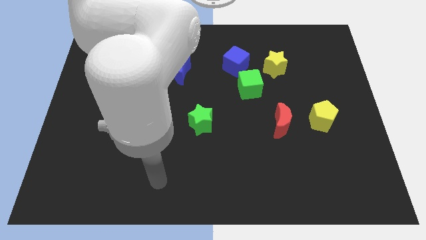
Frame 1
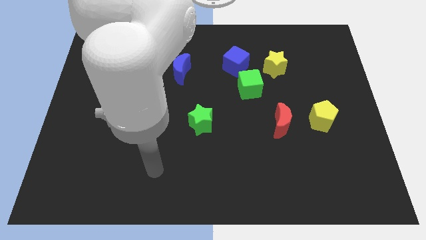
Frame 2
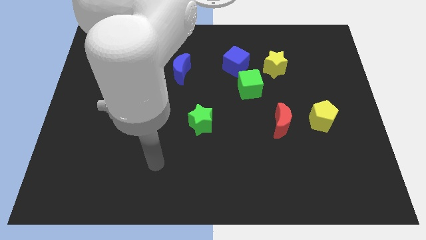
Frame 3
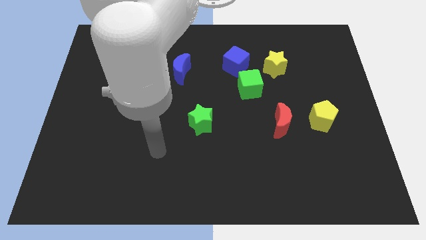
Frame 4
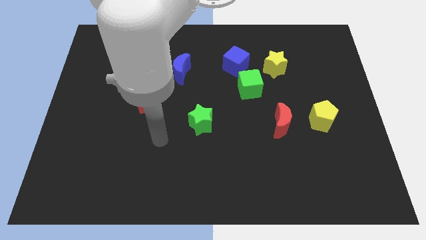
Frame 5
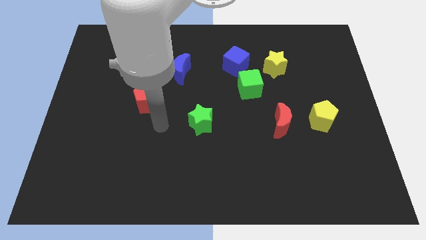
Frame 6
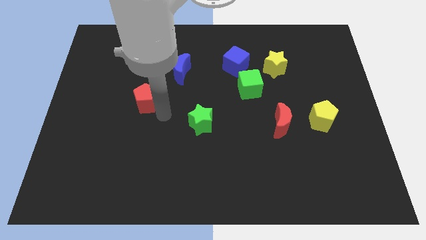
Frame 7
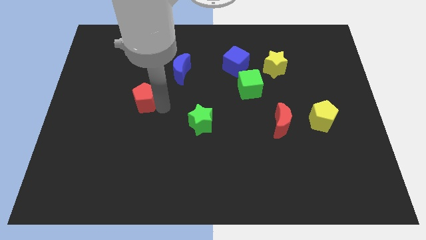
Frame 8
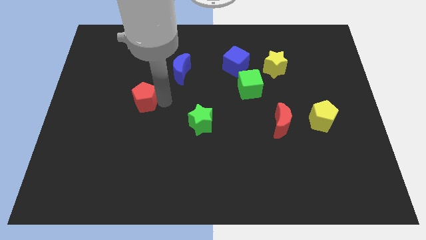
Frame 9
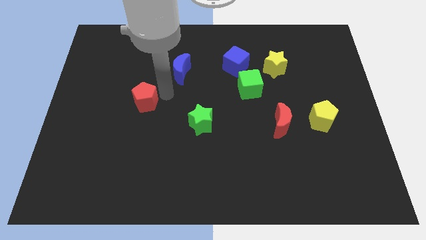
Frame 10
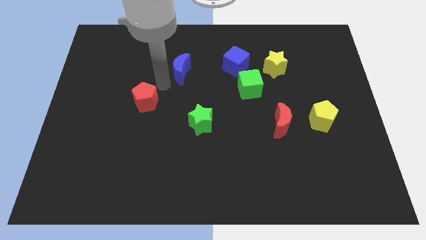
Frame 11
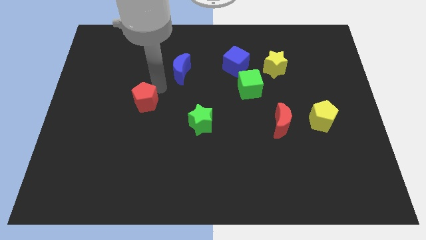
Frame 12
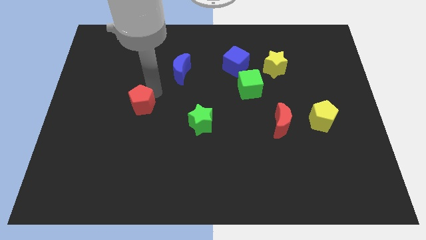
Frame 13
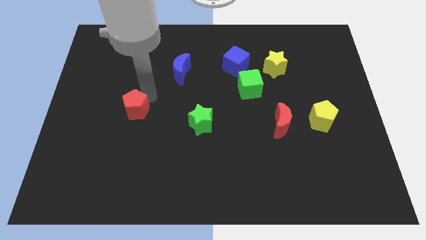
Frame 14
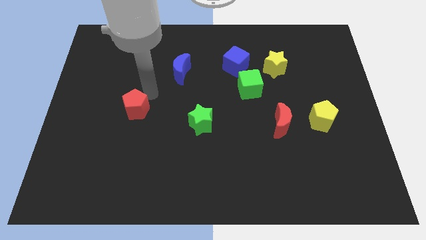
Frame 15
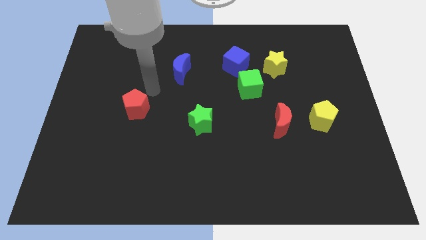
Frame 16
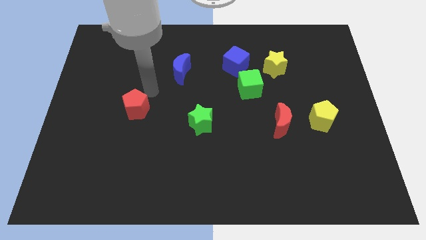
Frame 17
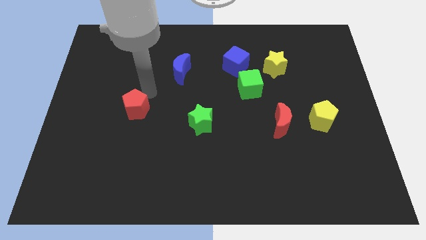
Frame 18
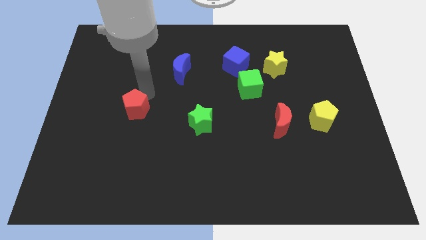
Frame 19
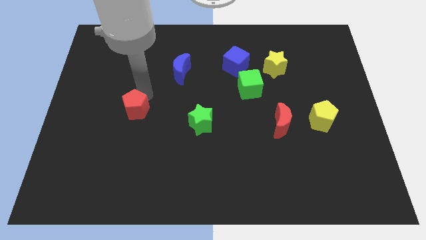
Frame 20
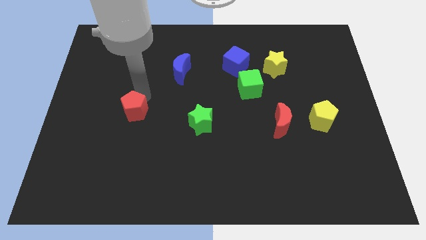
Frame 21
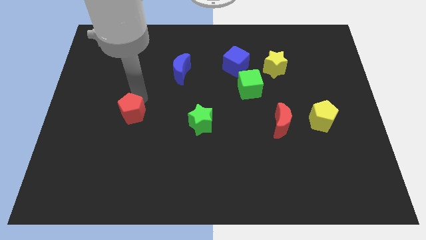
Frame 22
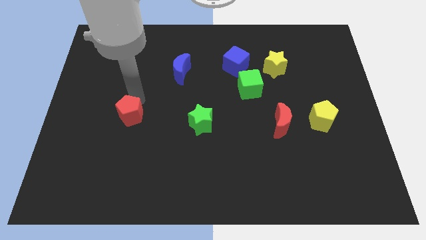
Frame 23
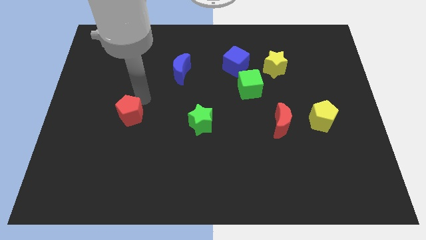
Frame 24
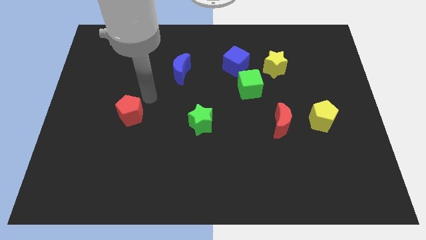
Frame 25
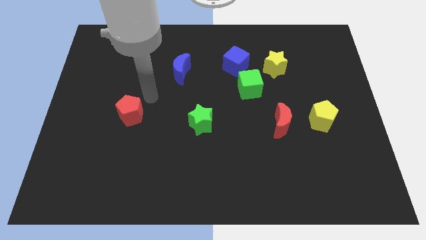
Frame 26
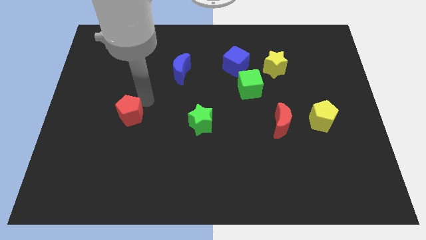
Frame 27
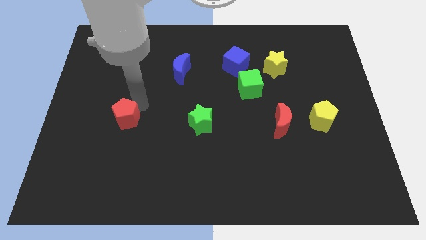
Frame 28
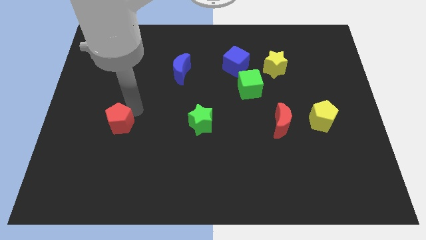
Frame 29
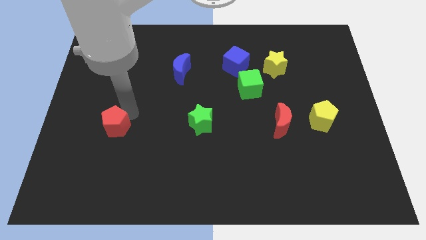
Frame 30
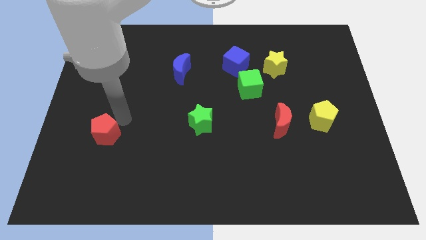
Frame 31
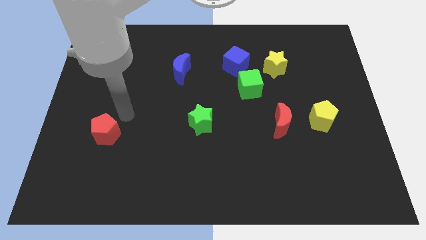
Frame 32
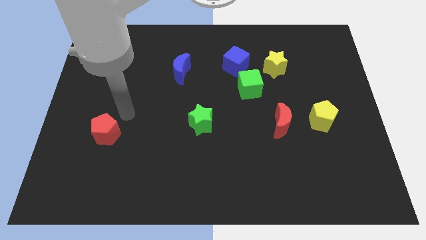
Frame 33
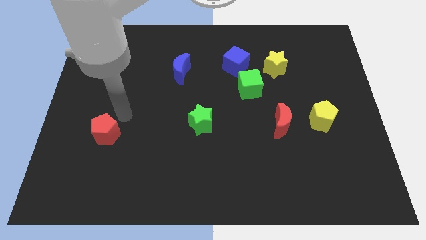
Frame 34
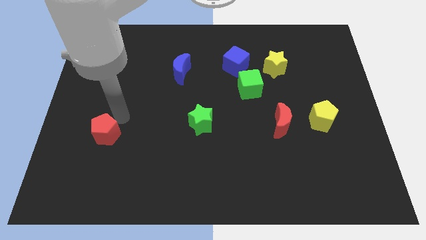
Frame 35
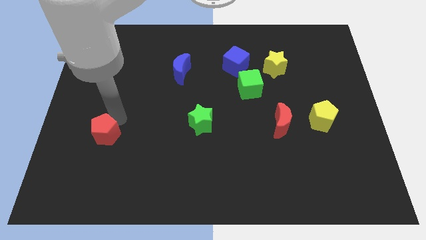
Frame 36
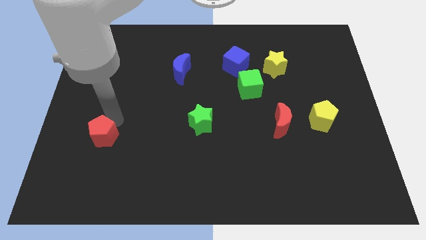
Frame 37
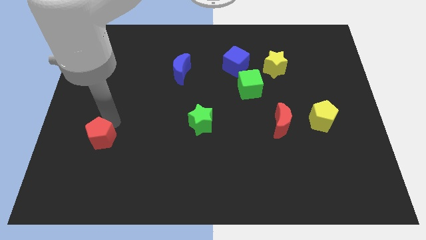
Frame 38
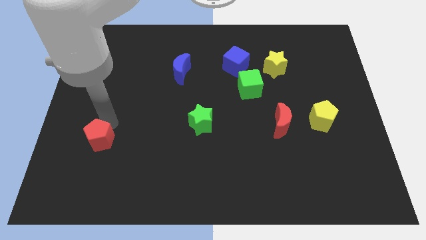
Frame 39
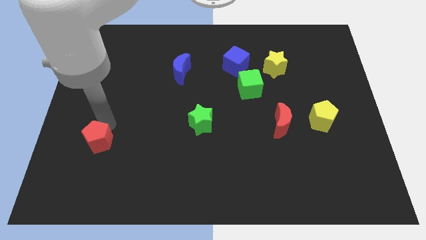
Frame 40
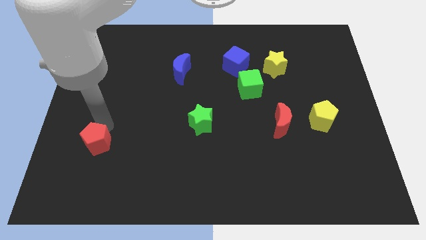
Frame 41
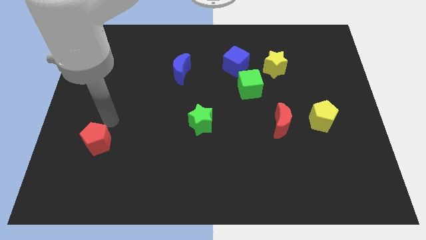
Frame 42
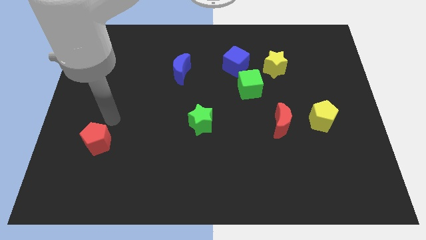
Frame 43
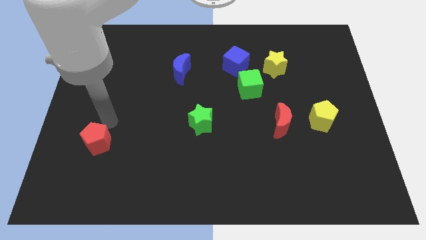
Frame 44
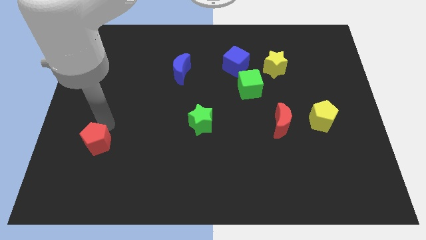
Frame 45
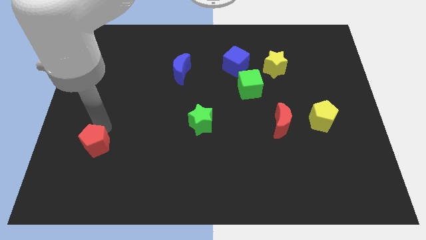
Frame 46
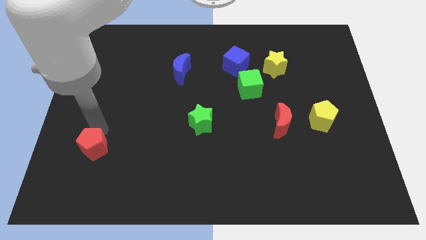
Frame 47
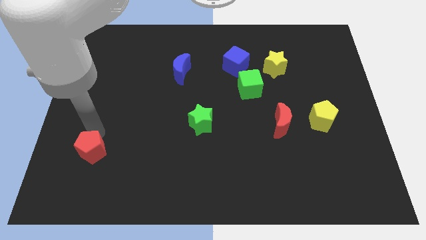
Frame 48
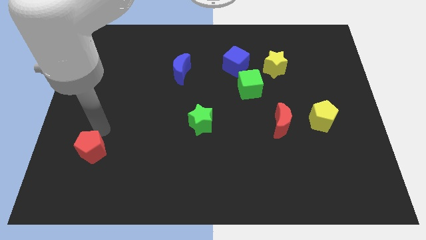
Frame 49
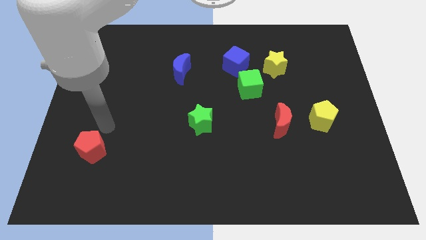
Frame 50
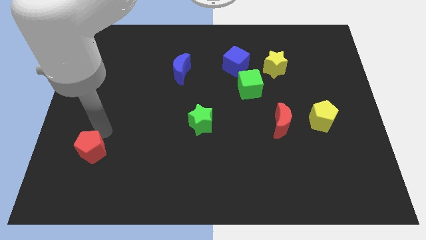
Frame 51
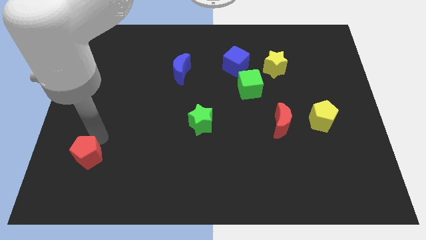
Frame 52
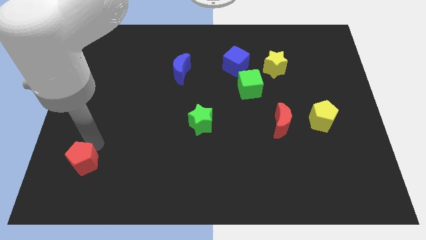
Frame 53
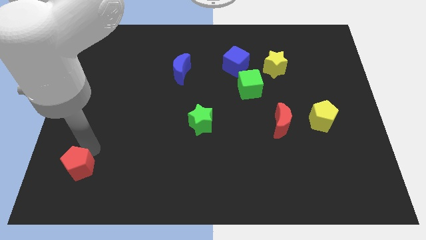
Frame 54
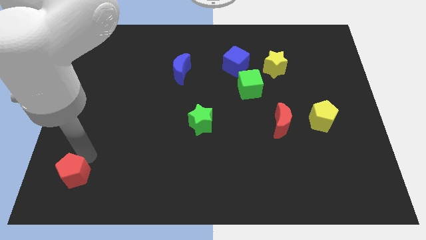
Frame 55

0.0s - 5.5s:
push the red pentagon to the bottom left of the board

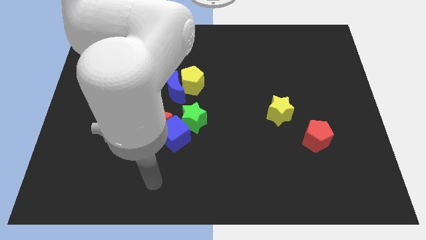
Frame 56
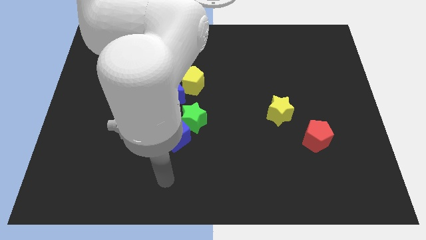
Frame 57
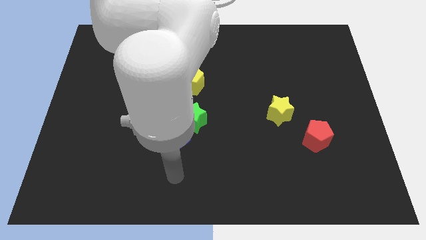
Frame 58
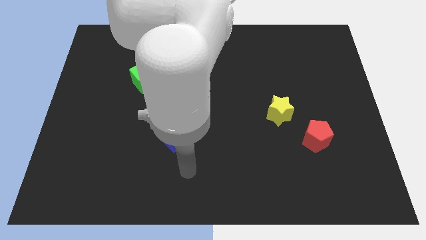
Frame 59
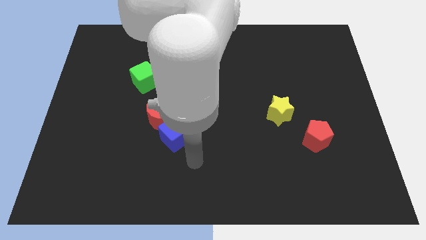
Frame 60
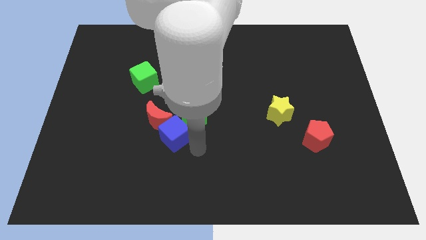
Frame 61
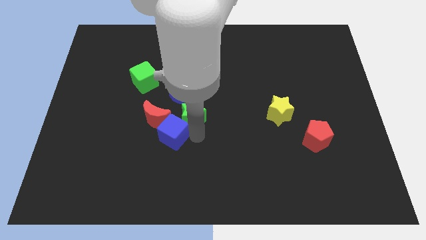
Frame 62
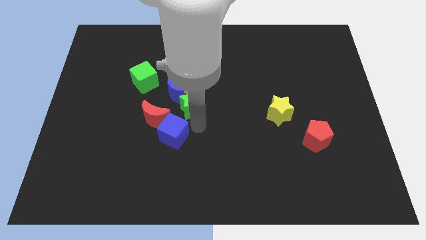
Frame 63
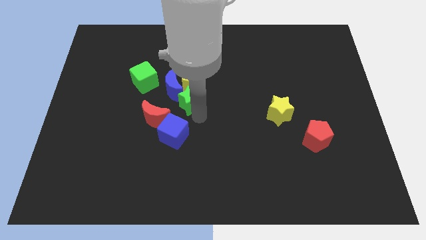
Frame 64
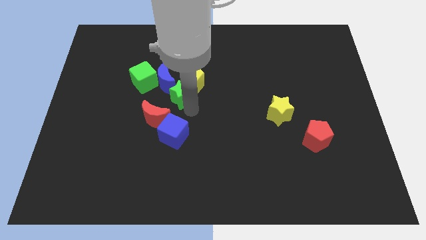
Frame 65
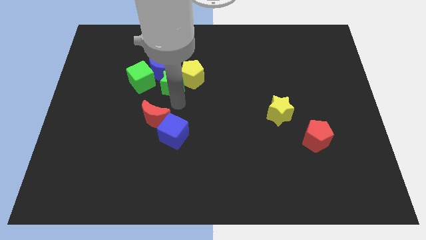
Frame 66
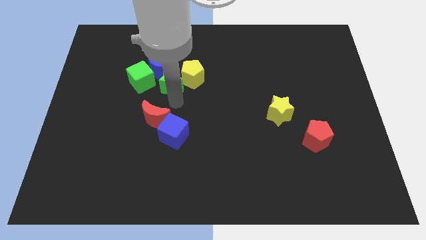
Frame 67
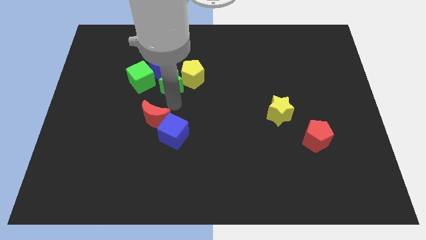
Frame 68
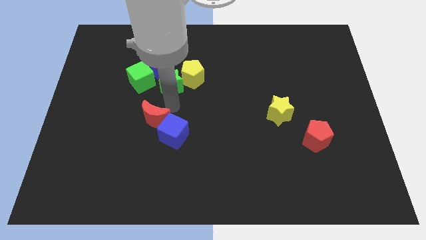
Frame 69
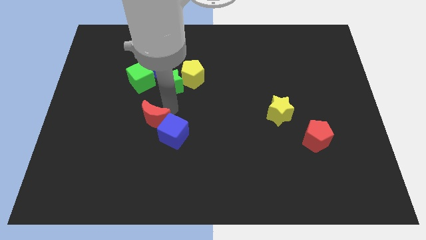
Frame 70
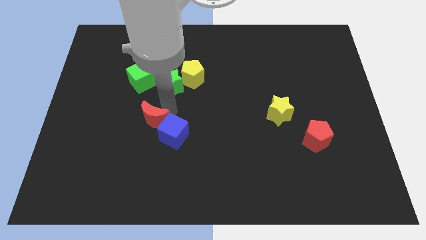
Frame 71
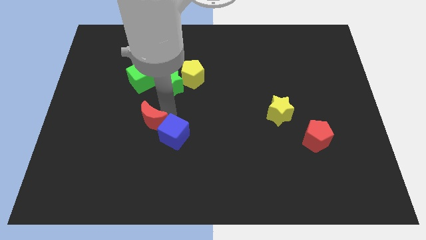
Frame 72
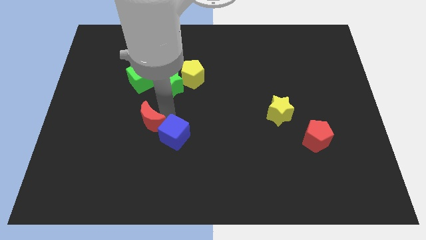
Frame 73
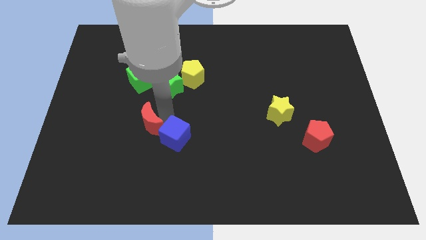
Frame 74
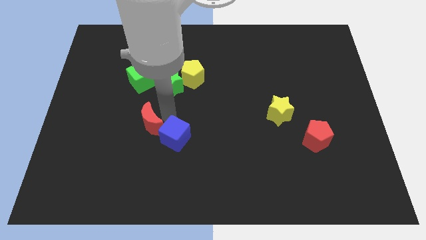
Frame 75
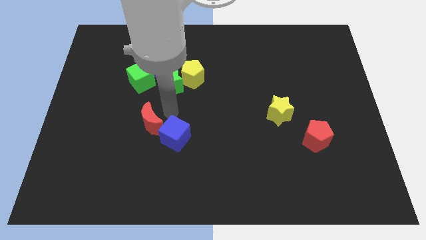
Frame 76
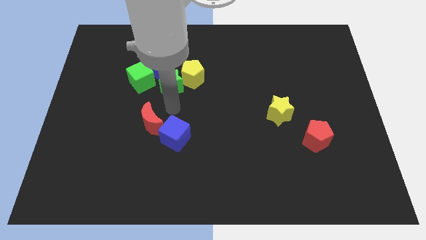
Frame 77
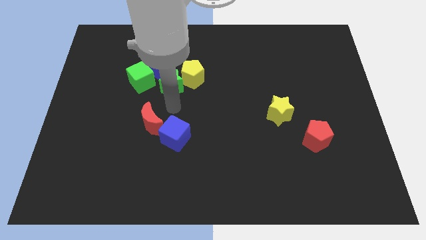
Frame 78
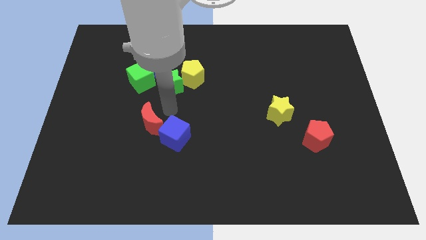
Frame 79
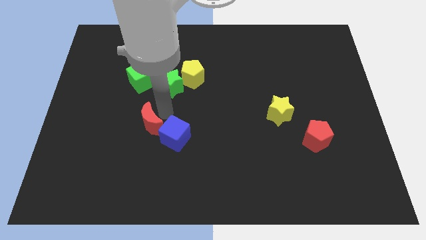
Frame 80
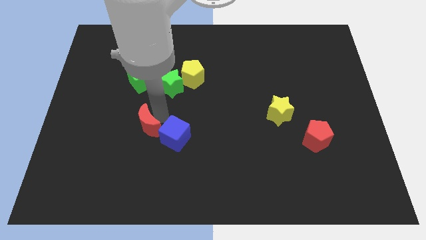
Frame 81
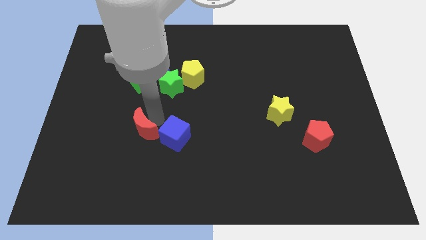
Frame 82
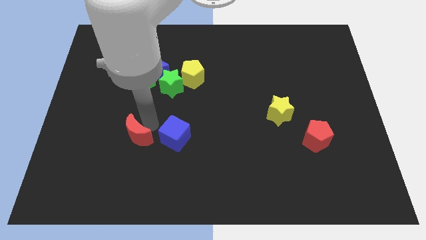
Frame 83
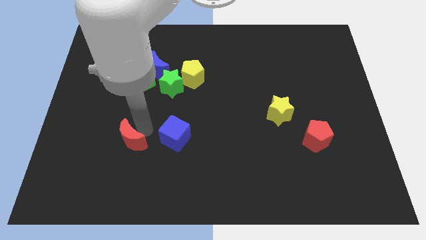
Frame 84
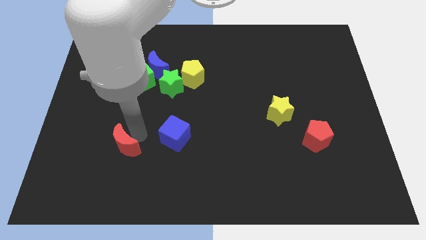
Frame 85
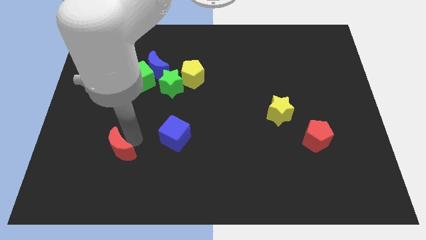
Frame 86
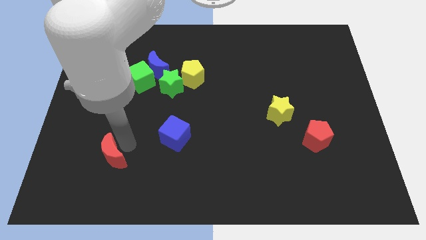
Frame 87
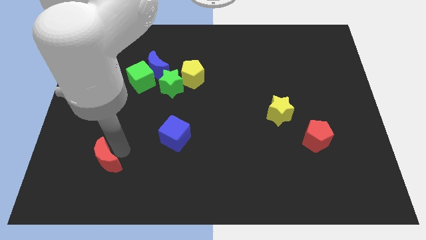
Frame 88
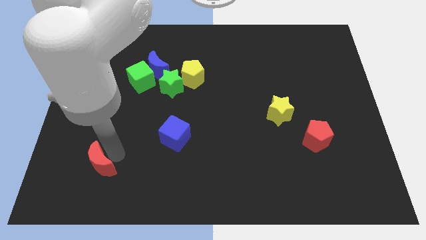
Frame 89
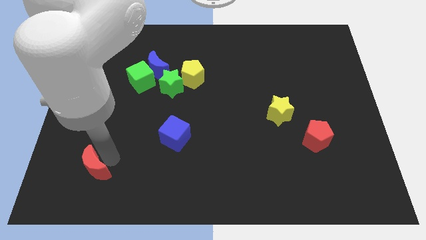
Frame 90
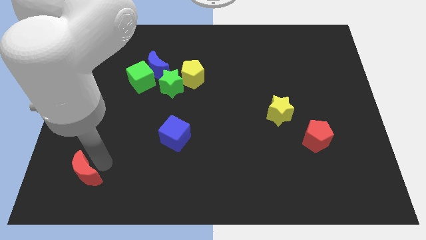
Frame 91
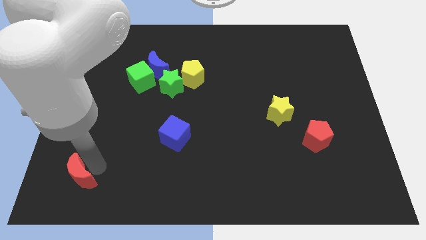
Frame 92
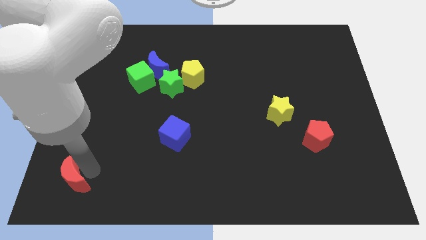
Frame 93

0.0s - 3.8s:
move the red moon to the bottom left corner
